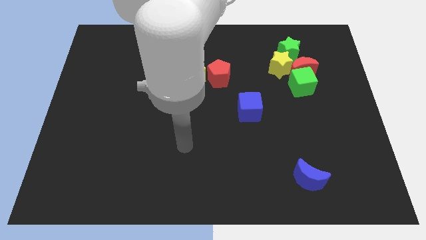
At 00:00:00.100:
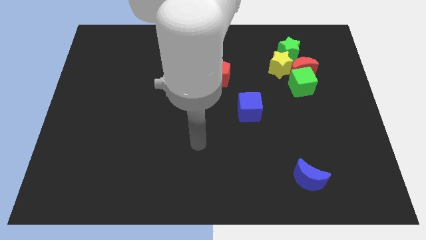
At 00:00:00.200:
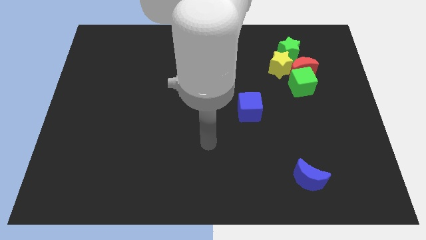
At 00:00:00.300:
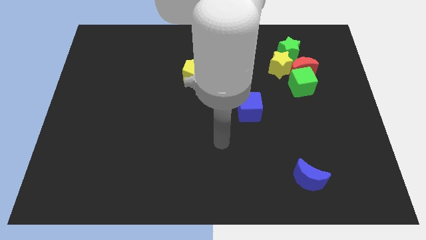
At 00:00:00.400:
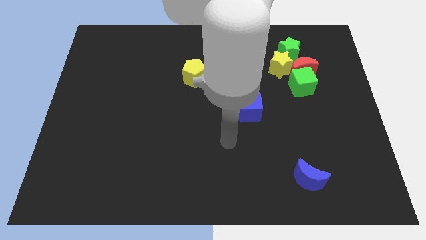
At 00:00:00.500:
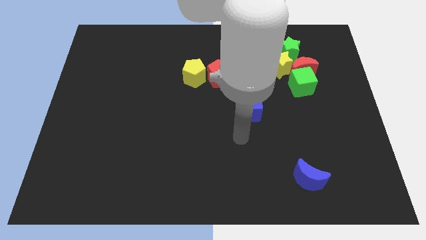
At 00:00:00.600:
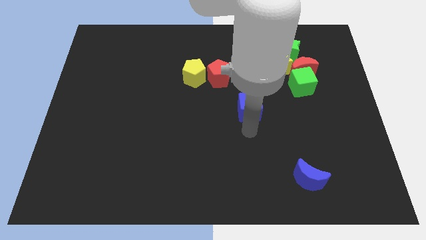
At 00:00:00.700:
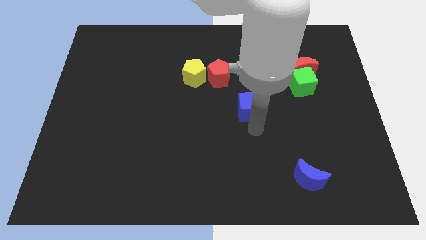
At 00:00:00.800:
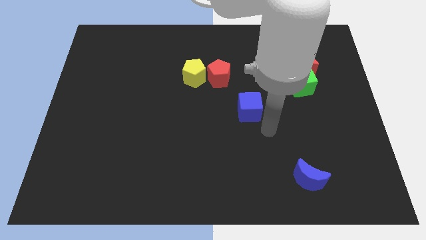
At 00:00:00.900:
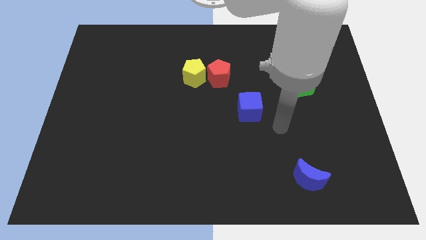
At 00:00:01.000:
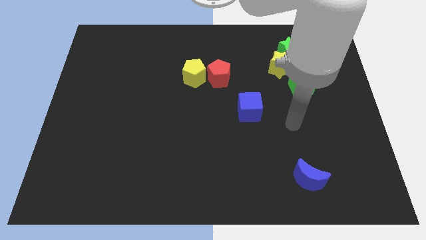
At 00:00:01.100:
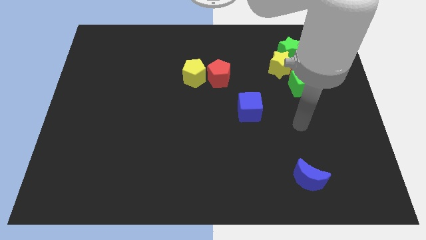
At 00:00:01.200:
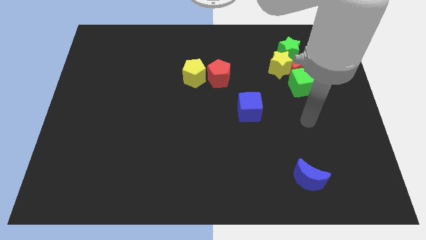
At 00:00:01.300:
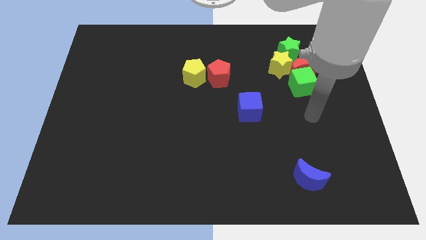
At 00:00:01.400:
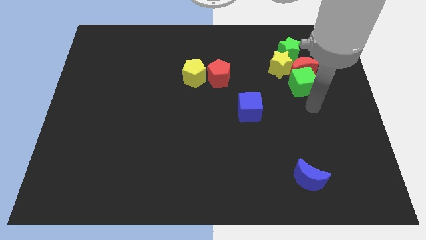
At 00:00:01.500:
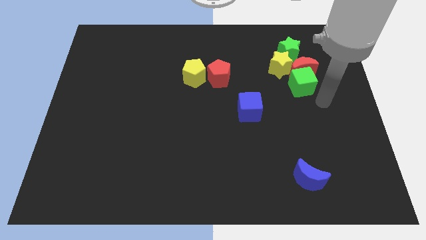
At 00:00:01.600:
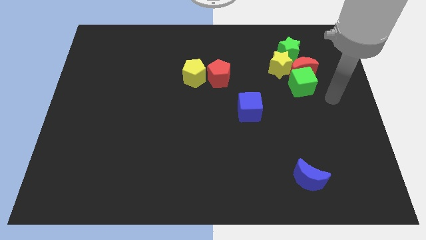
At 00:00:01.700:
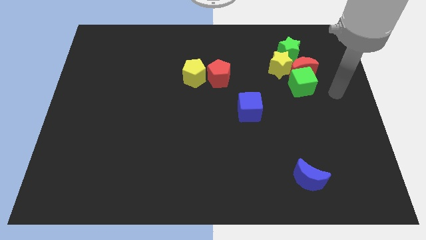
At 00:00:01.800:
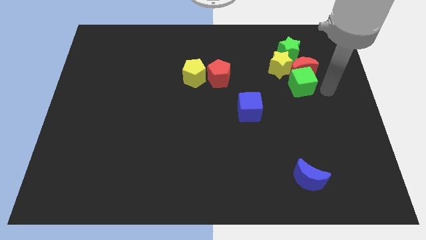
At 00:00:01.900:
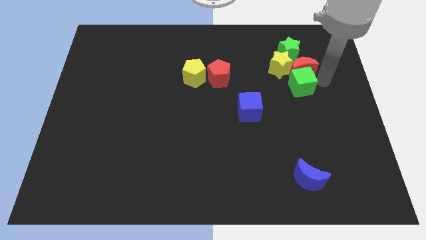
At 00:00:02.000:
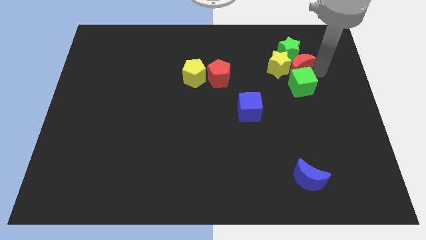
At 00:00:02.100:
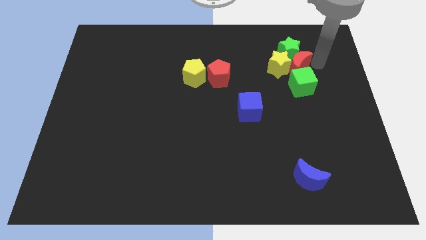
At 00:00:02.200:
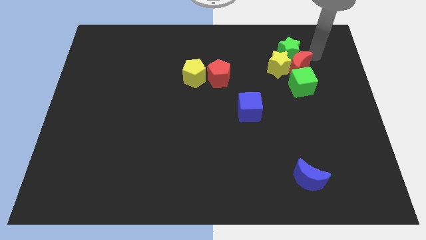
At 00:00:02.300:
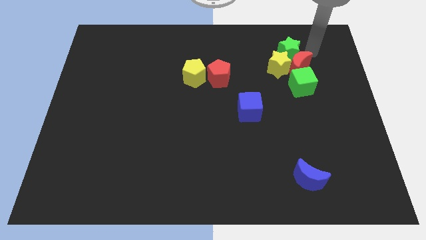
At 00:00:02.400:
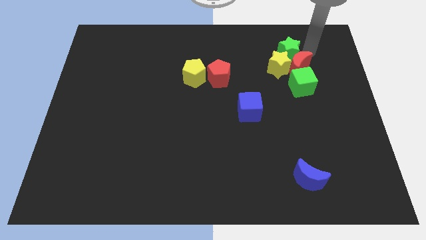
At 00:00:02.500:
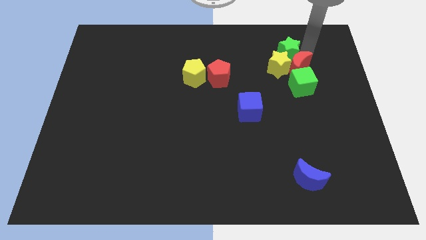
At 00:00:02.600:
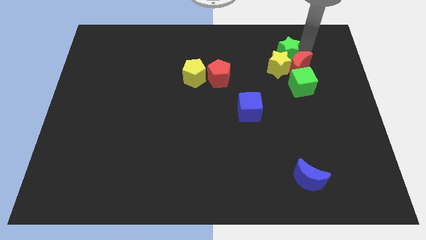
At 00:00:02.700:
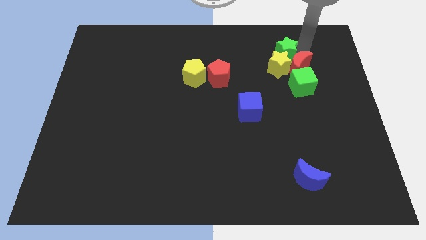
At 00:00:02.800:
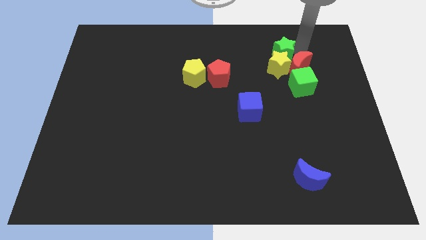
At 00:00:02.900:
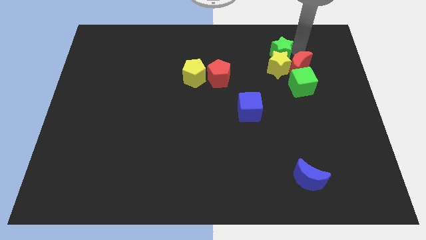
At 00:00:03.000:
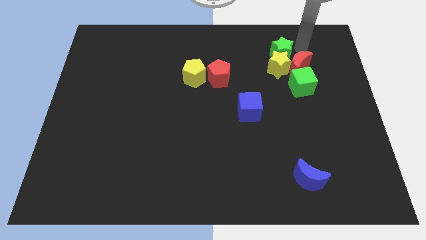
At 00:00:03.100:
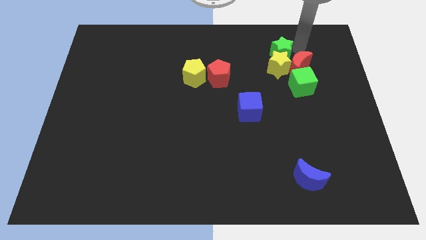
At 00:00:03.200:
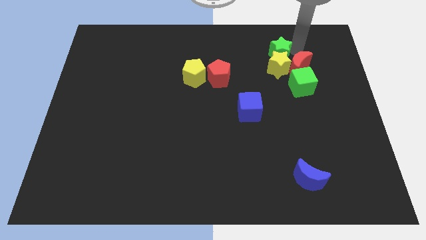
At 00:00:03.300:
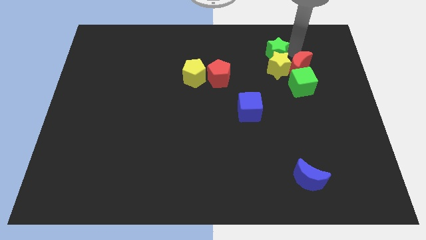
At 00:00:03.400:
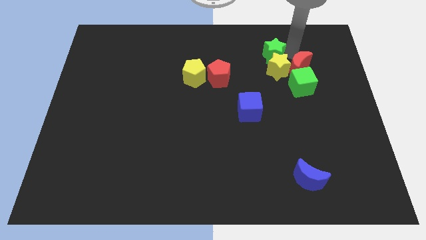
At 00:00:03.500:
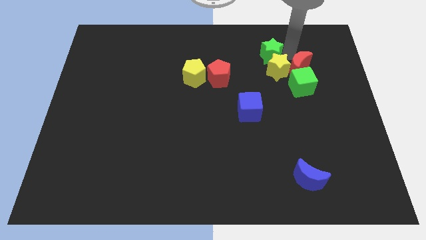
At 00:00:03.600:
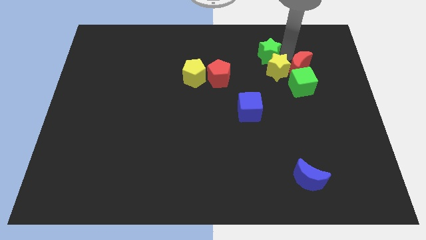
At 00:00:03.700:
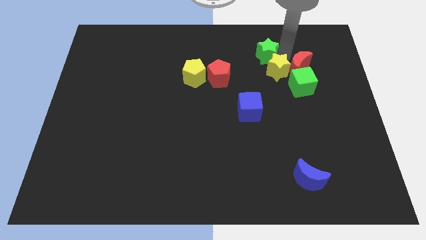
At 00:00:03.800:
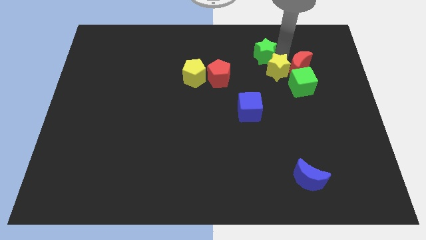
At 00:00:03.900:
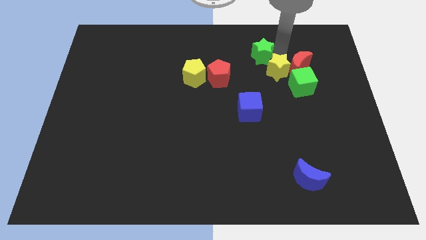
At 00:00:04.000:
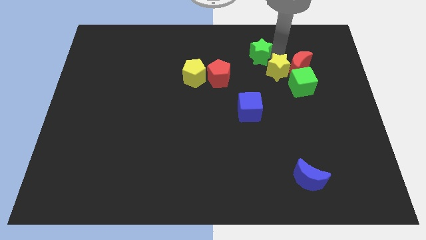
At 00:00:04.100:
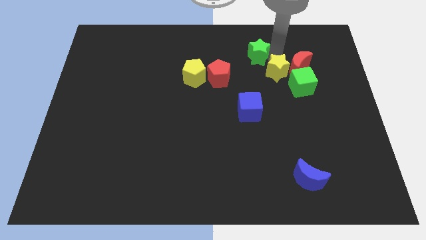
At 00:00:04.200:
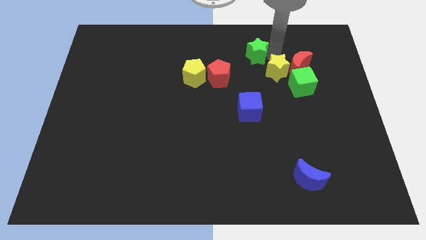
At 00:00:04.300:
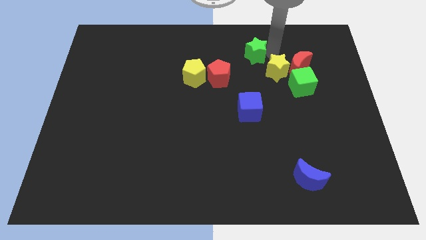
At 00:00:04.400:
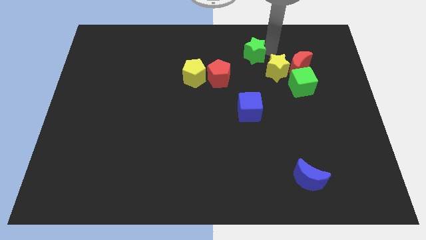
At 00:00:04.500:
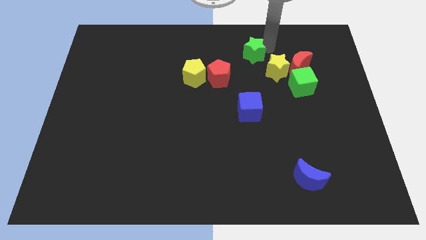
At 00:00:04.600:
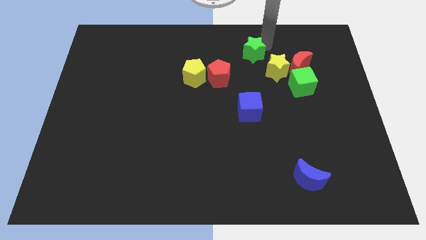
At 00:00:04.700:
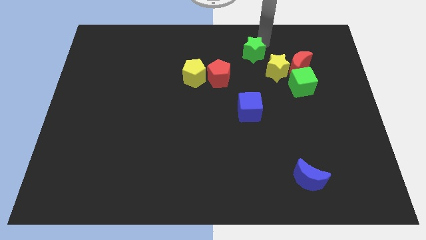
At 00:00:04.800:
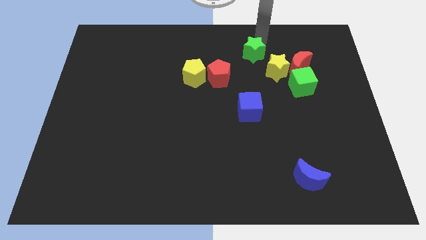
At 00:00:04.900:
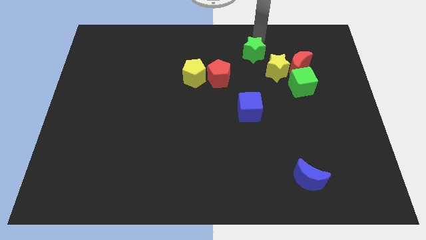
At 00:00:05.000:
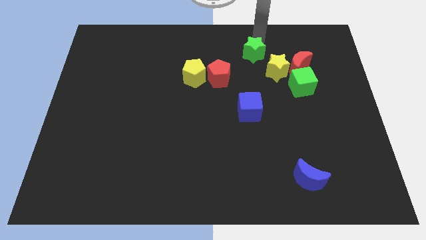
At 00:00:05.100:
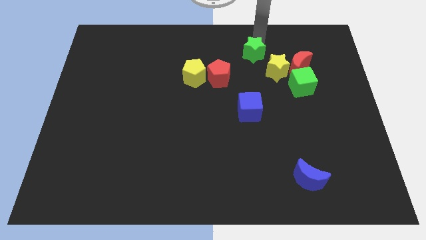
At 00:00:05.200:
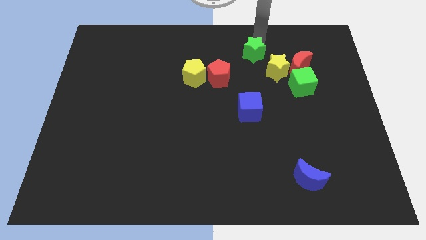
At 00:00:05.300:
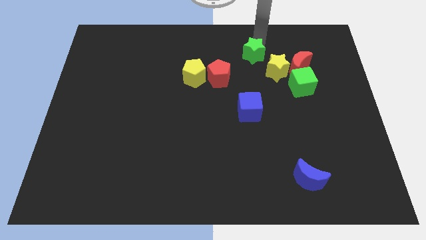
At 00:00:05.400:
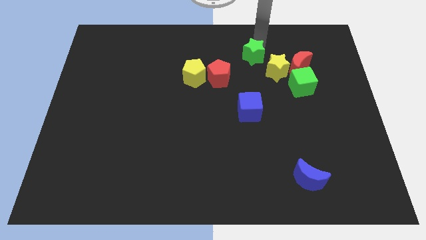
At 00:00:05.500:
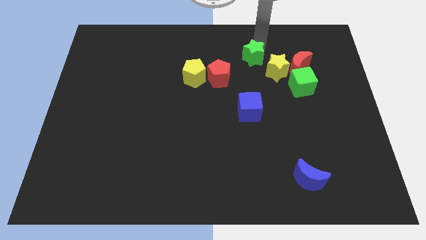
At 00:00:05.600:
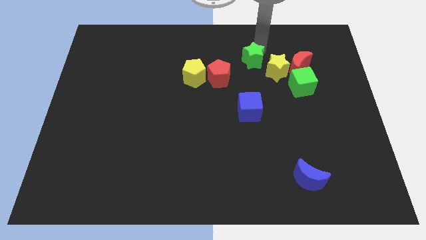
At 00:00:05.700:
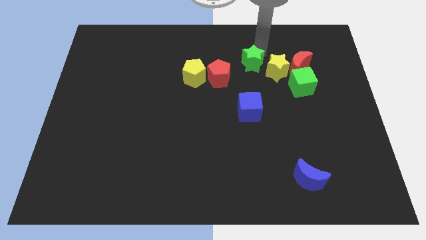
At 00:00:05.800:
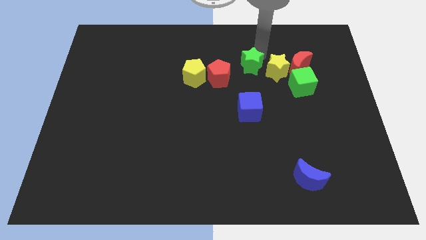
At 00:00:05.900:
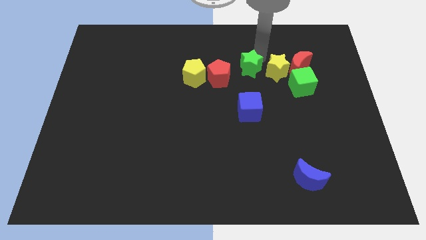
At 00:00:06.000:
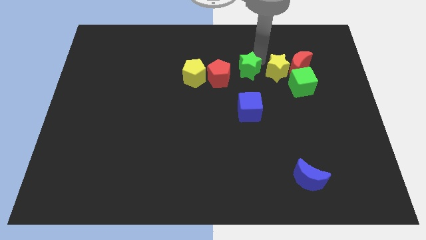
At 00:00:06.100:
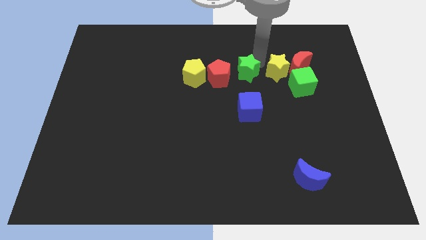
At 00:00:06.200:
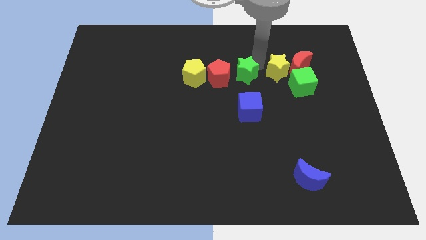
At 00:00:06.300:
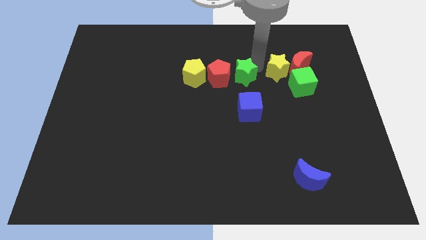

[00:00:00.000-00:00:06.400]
put the green star close to the red pentagon

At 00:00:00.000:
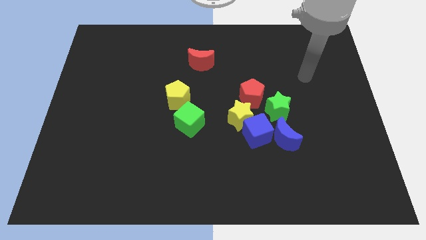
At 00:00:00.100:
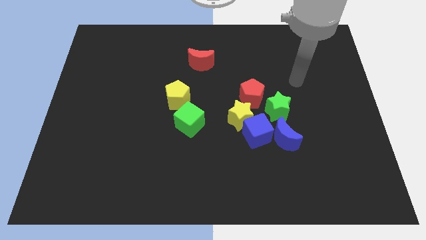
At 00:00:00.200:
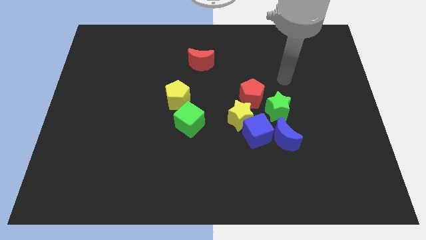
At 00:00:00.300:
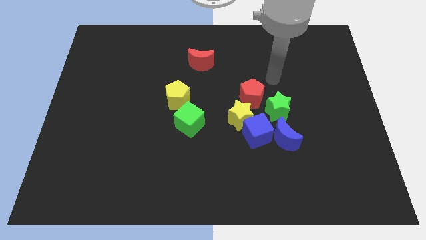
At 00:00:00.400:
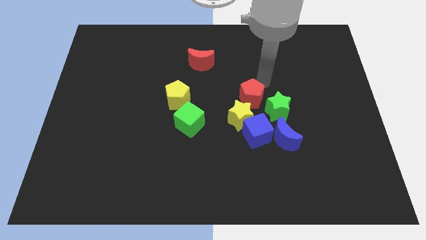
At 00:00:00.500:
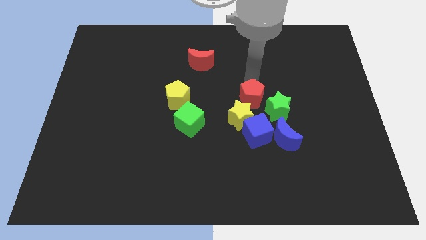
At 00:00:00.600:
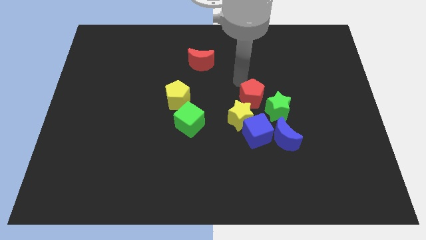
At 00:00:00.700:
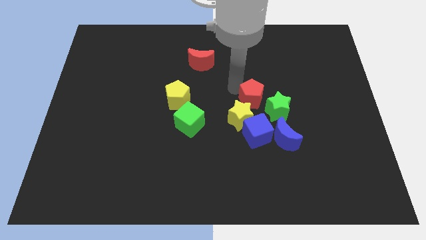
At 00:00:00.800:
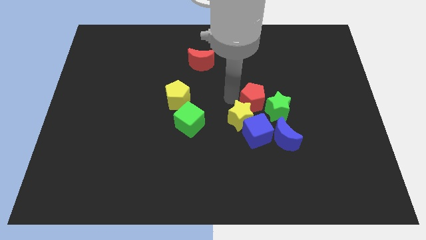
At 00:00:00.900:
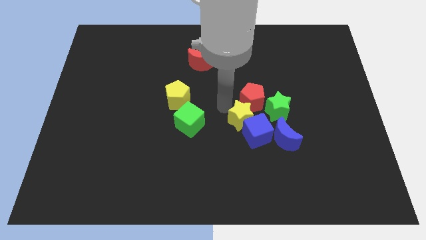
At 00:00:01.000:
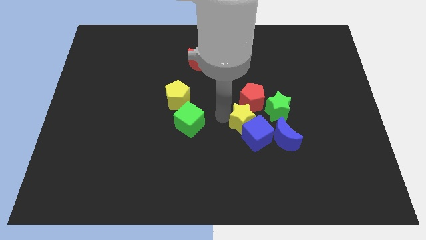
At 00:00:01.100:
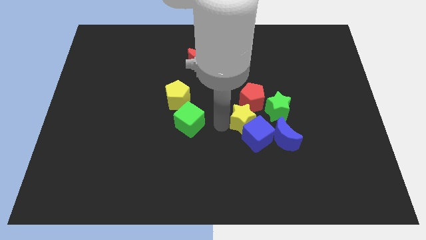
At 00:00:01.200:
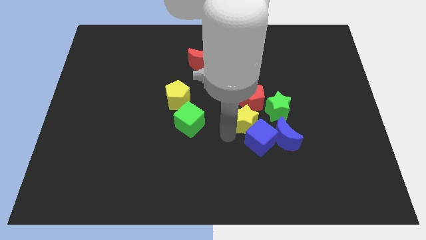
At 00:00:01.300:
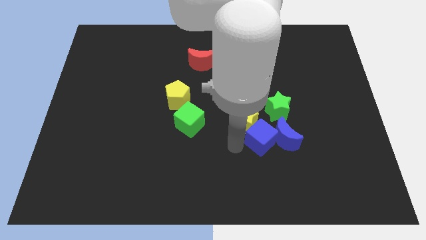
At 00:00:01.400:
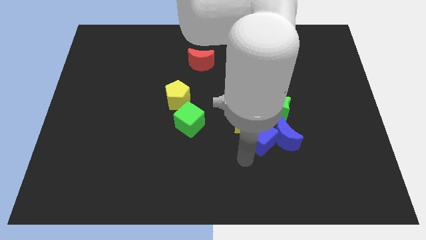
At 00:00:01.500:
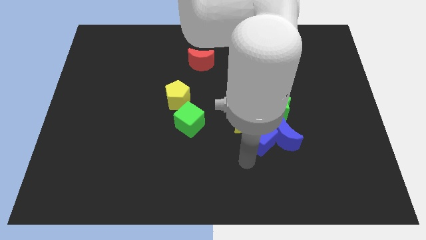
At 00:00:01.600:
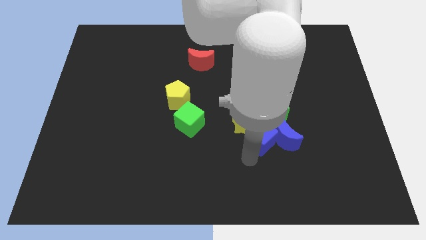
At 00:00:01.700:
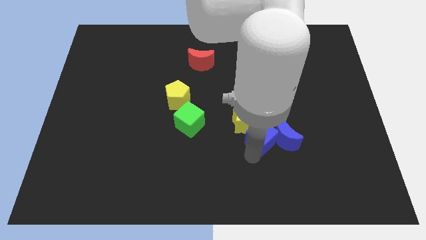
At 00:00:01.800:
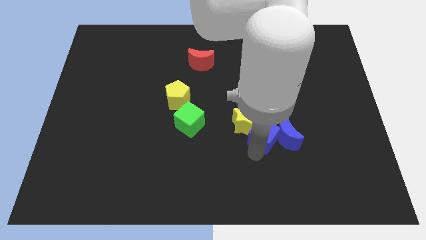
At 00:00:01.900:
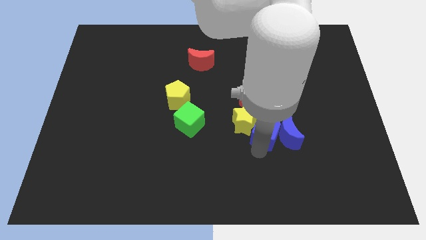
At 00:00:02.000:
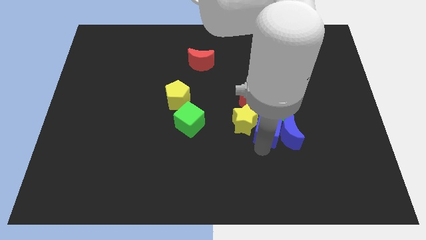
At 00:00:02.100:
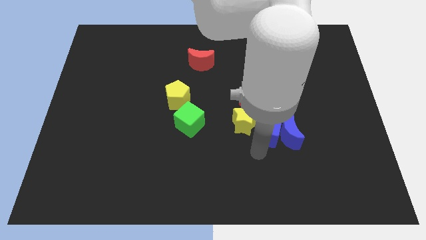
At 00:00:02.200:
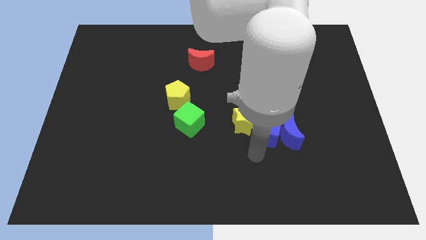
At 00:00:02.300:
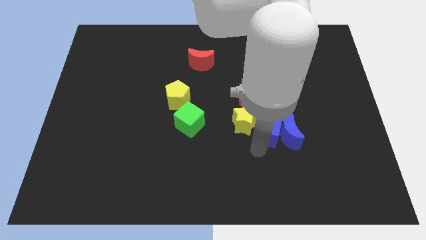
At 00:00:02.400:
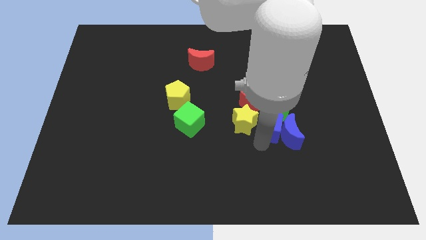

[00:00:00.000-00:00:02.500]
move the blue cube to the green star
